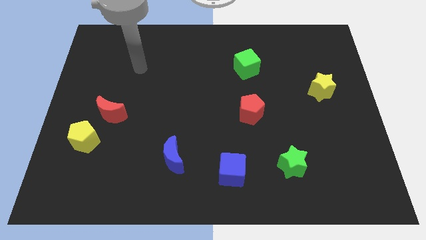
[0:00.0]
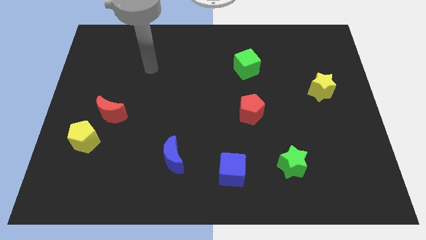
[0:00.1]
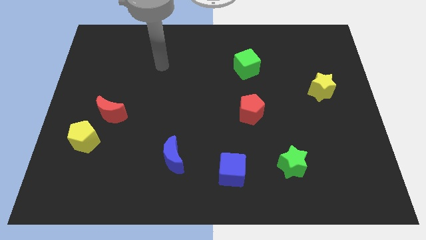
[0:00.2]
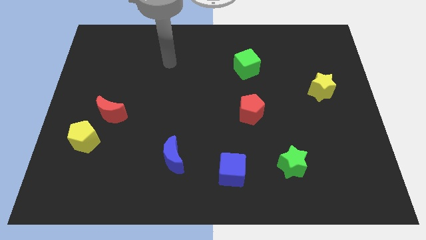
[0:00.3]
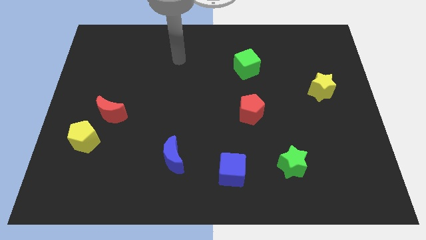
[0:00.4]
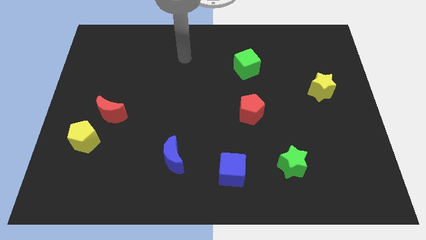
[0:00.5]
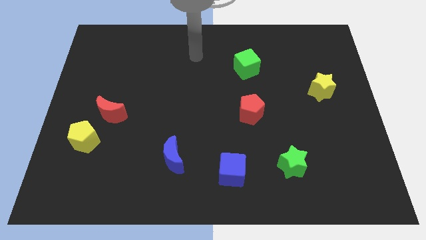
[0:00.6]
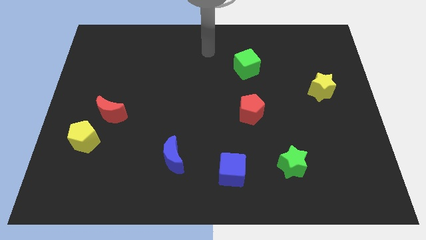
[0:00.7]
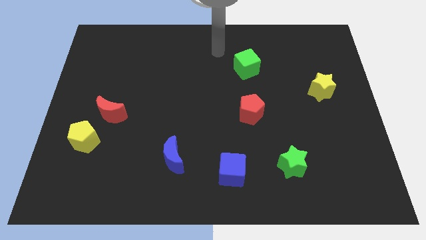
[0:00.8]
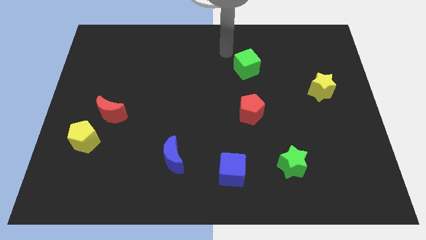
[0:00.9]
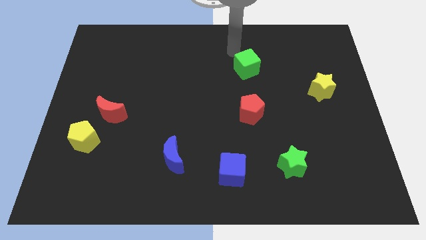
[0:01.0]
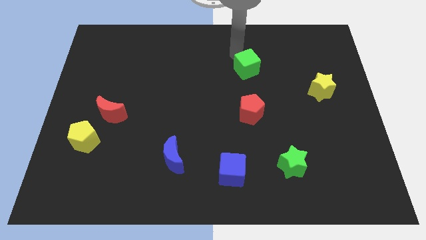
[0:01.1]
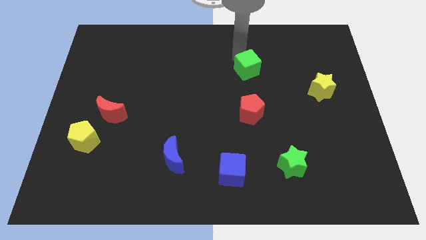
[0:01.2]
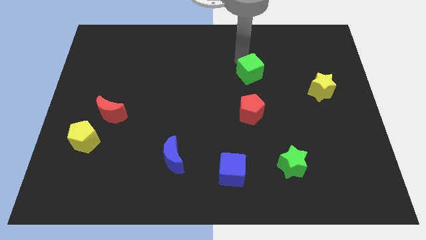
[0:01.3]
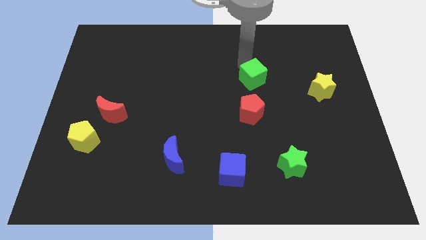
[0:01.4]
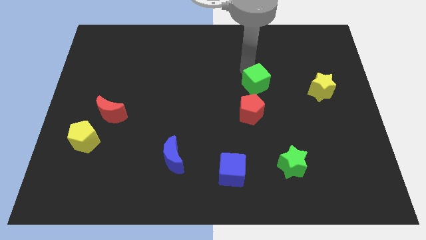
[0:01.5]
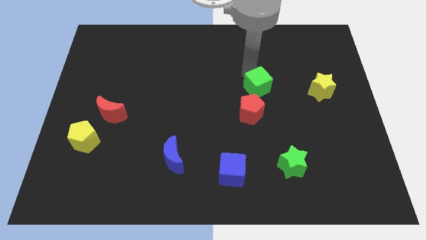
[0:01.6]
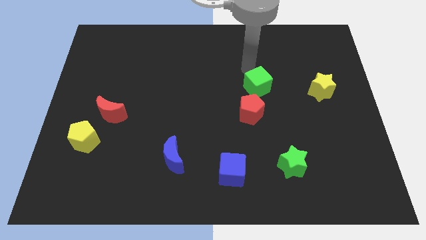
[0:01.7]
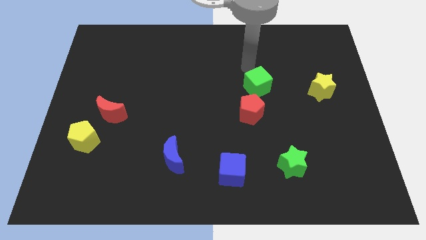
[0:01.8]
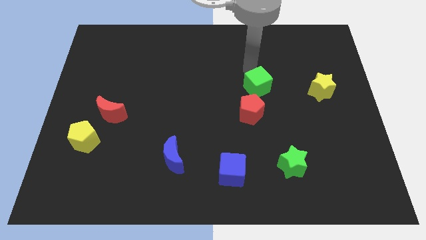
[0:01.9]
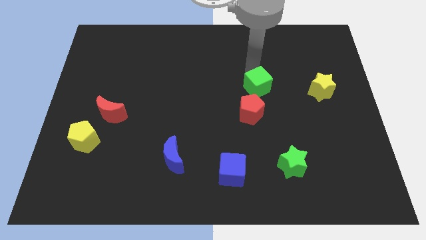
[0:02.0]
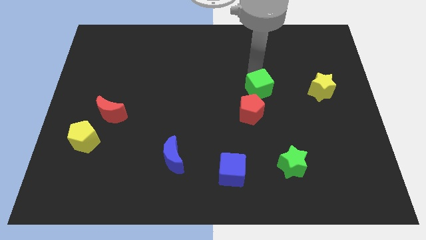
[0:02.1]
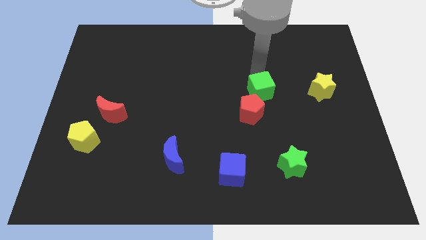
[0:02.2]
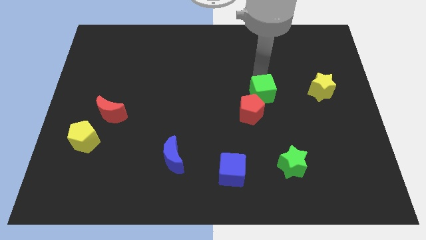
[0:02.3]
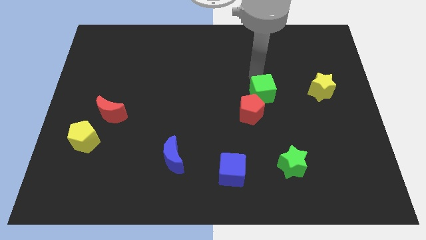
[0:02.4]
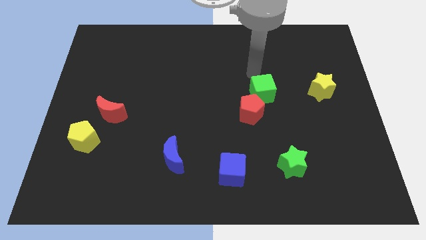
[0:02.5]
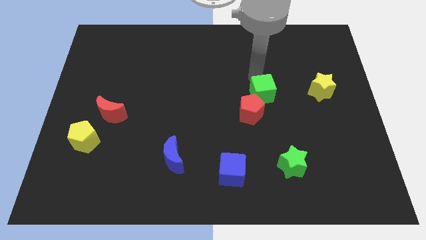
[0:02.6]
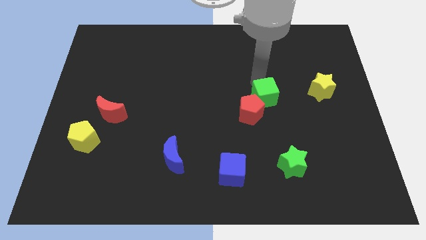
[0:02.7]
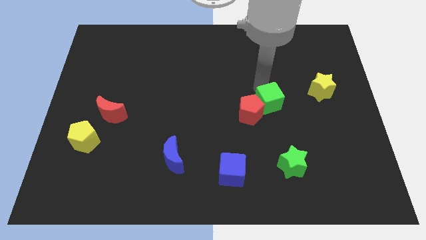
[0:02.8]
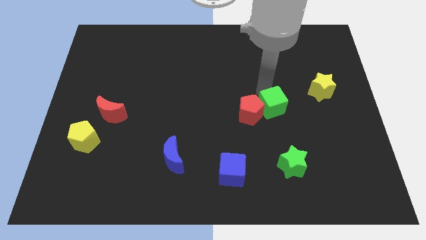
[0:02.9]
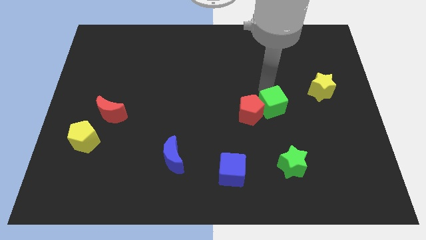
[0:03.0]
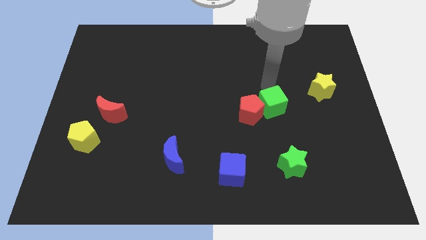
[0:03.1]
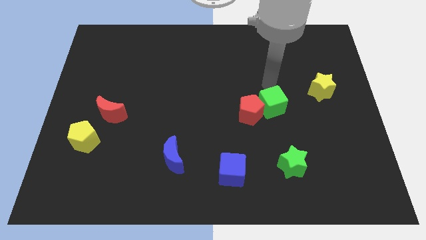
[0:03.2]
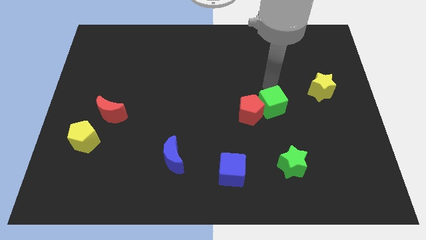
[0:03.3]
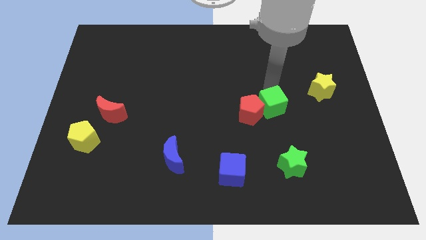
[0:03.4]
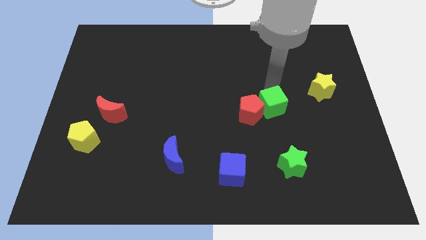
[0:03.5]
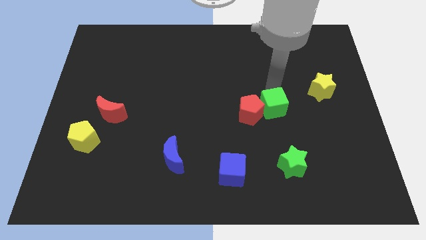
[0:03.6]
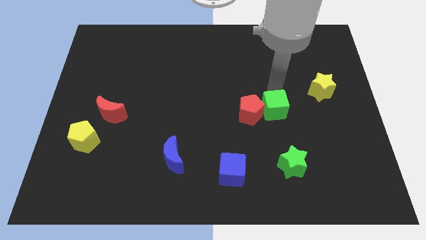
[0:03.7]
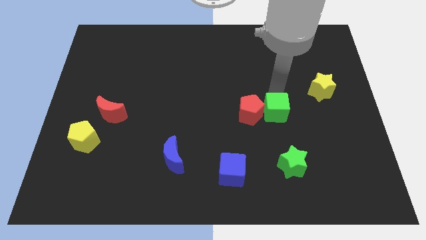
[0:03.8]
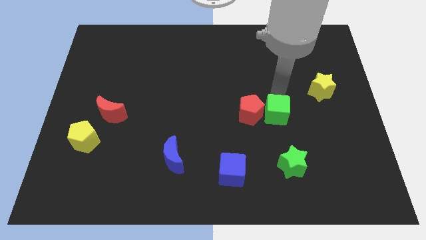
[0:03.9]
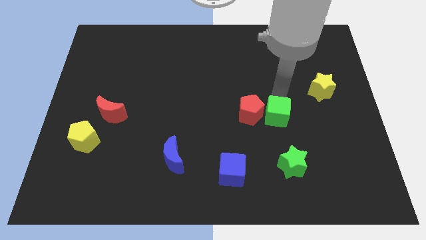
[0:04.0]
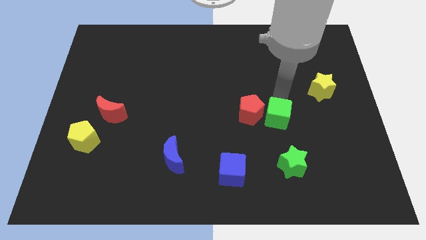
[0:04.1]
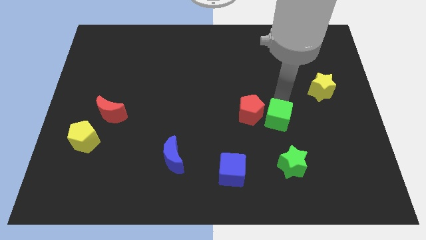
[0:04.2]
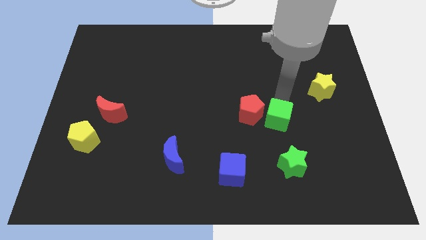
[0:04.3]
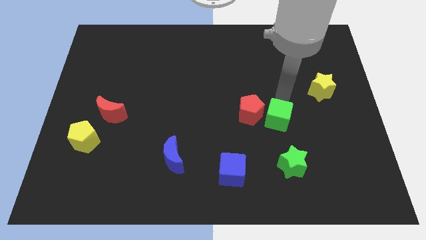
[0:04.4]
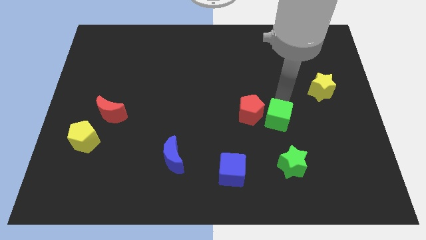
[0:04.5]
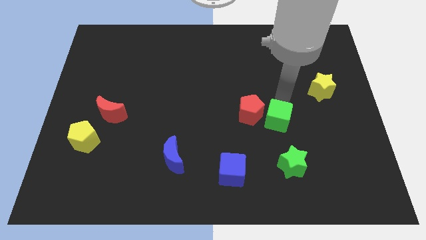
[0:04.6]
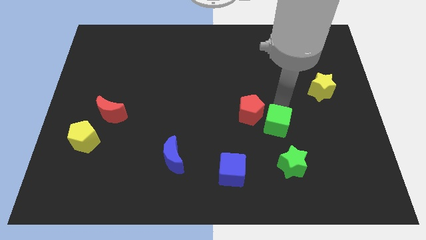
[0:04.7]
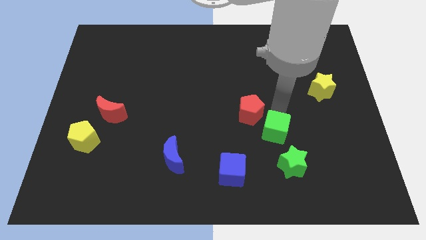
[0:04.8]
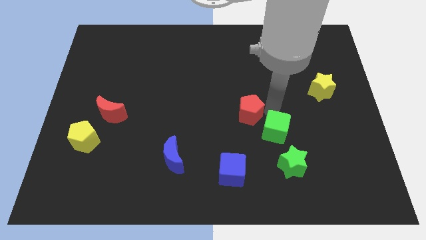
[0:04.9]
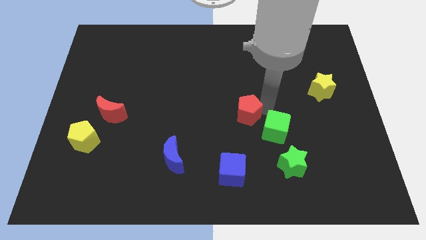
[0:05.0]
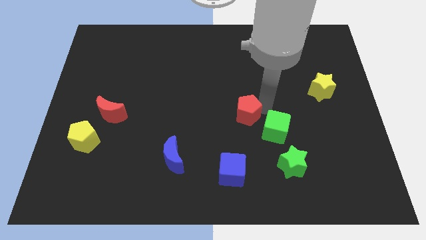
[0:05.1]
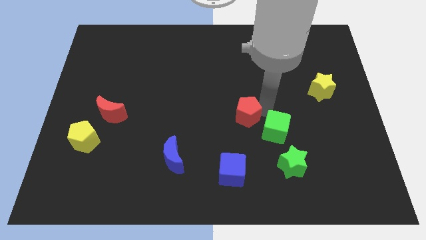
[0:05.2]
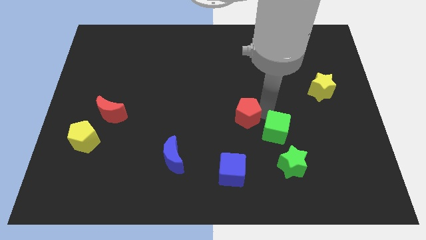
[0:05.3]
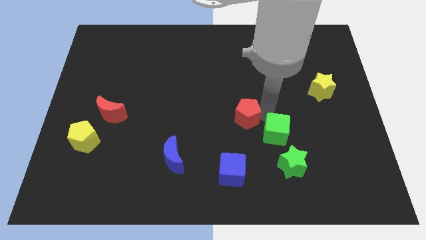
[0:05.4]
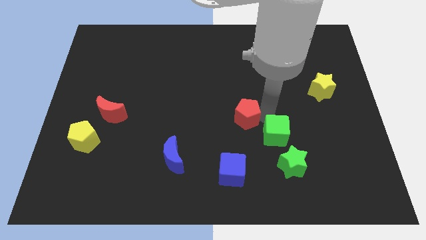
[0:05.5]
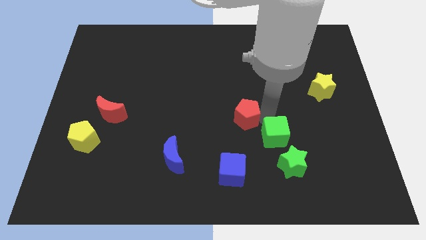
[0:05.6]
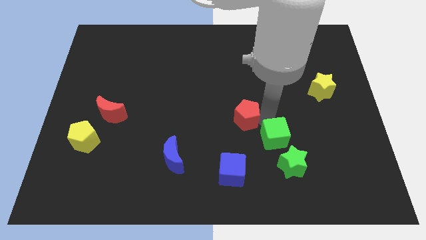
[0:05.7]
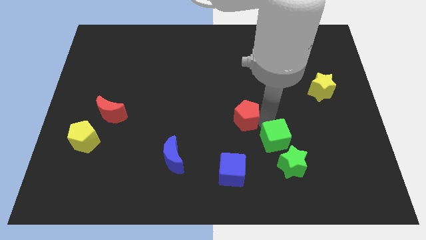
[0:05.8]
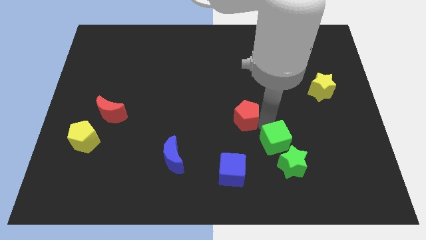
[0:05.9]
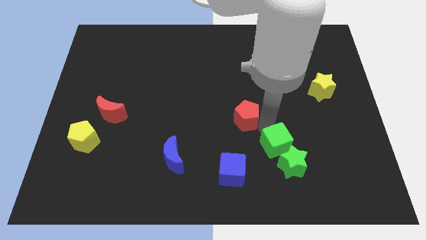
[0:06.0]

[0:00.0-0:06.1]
push the green cube close to the green star
